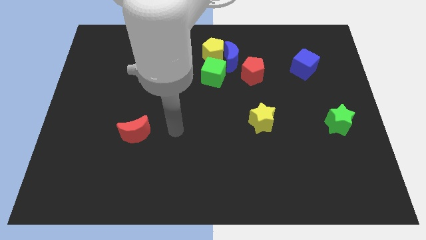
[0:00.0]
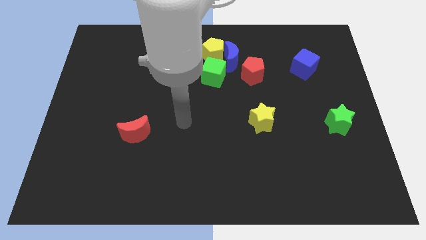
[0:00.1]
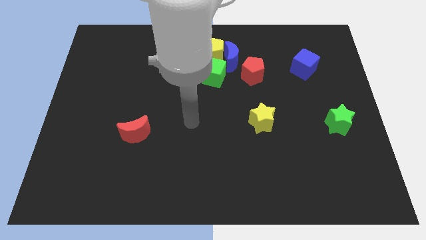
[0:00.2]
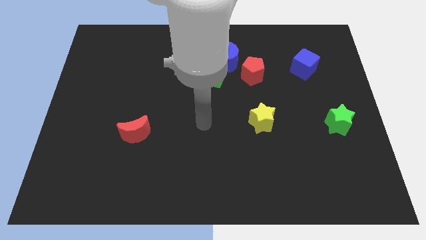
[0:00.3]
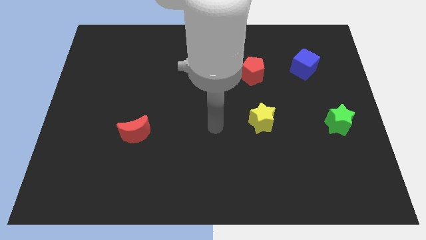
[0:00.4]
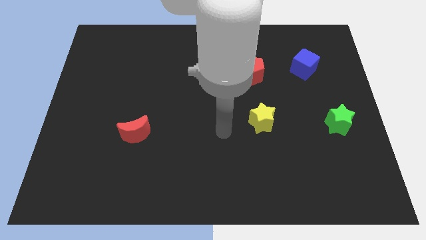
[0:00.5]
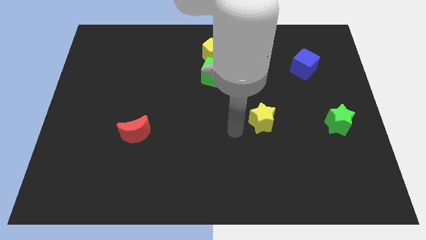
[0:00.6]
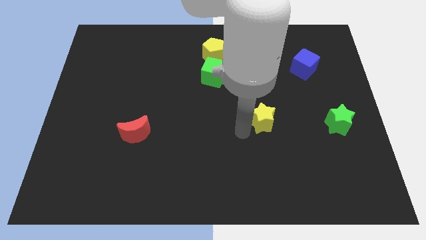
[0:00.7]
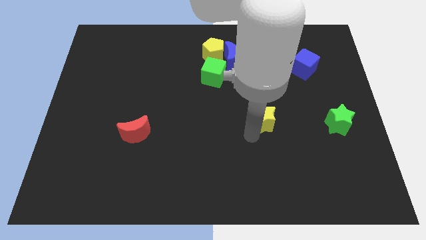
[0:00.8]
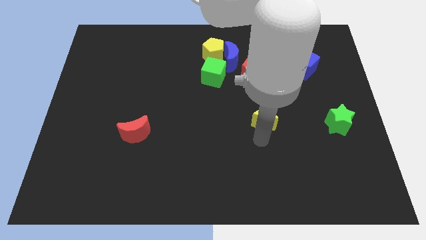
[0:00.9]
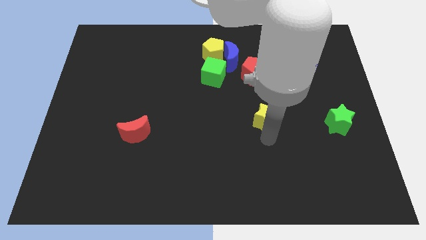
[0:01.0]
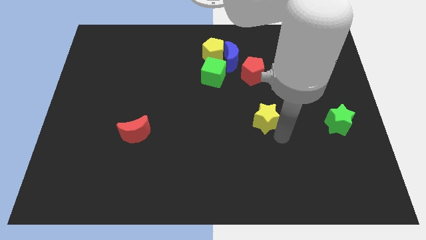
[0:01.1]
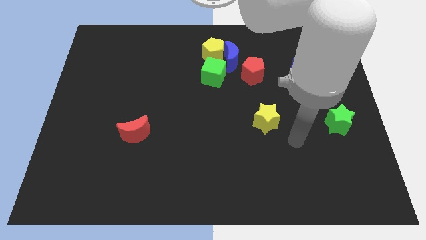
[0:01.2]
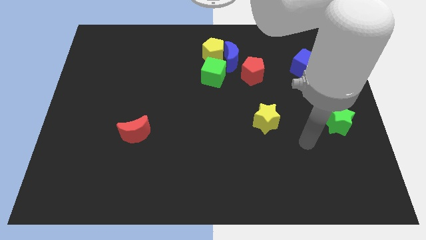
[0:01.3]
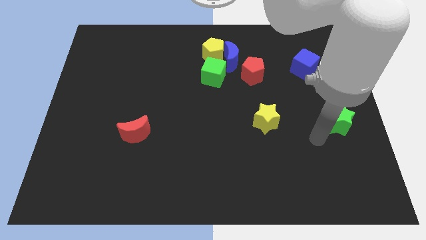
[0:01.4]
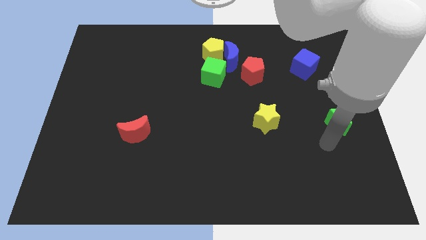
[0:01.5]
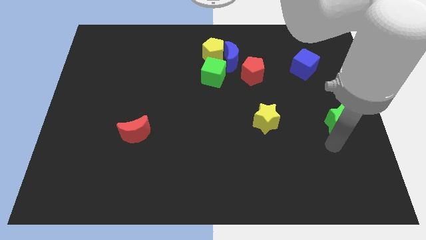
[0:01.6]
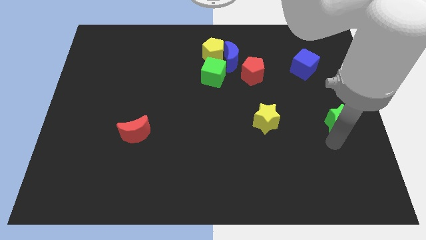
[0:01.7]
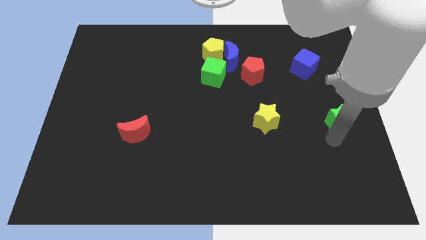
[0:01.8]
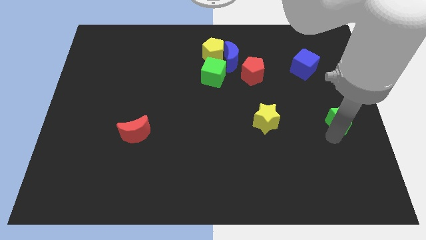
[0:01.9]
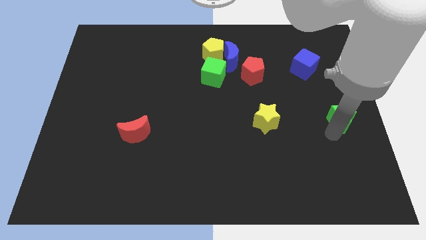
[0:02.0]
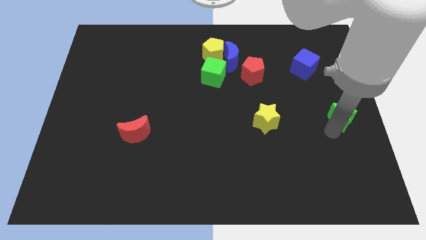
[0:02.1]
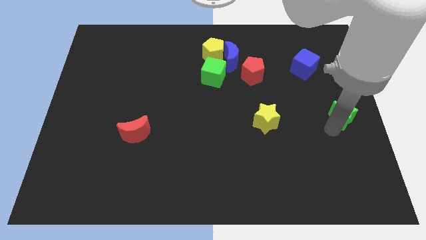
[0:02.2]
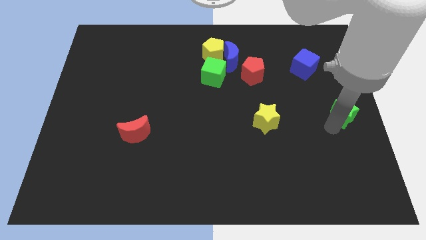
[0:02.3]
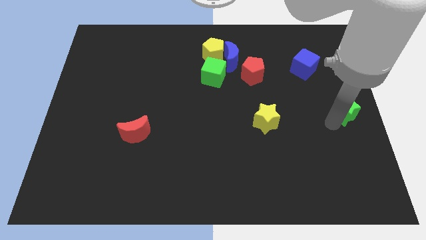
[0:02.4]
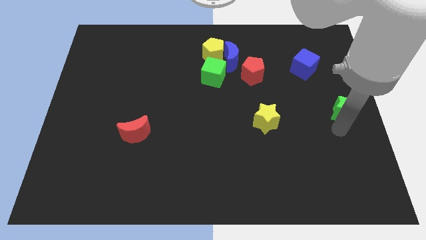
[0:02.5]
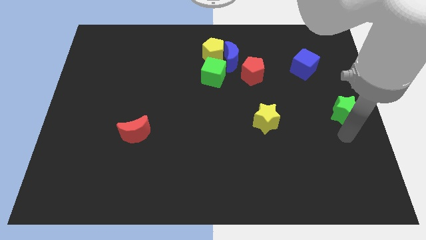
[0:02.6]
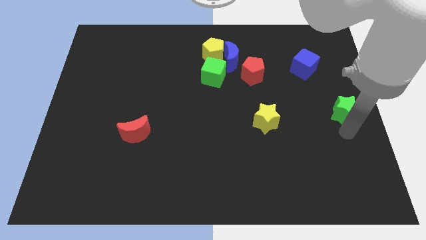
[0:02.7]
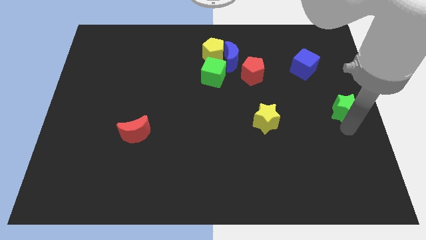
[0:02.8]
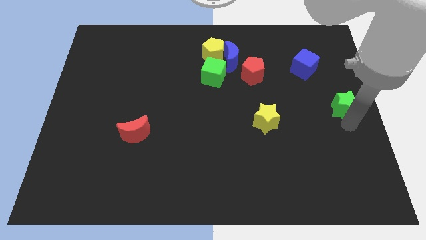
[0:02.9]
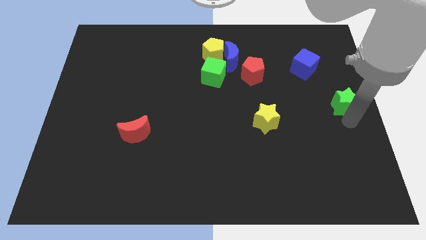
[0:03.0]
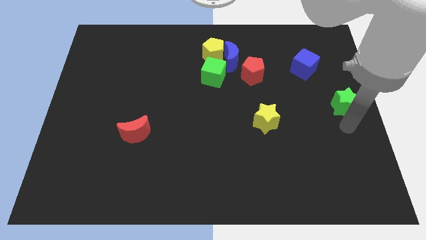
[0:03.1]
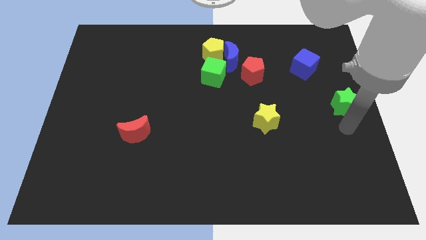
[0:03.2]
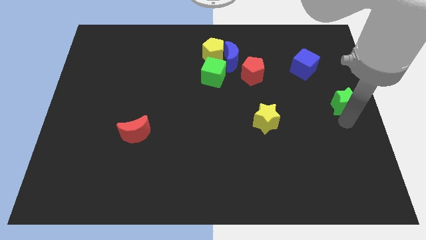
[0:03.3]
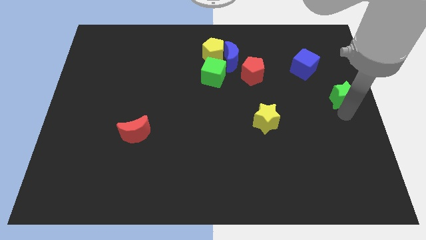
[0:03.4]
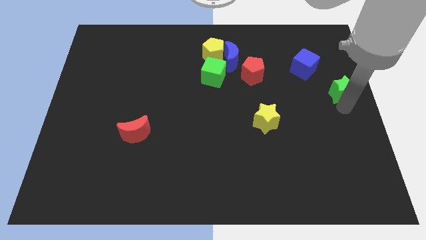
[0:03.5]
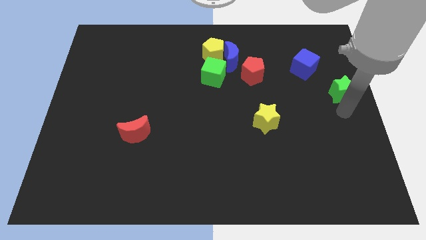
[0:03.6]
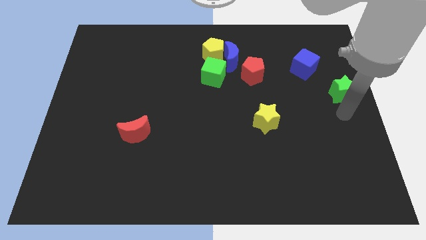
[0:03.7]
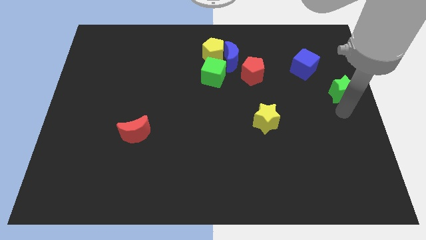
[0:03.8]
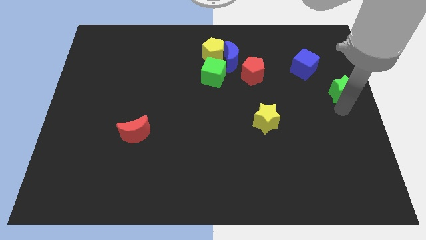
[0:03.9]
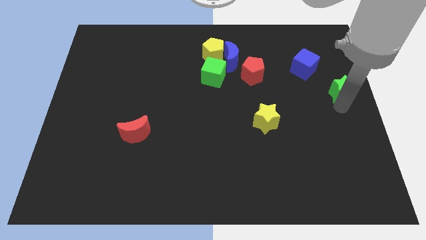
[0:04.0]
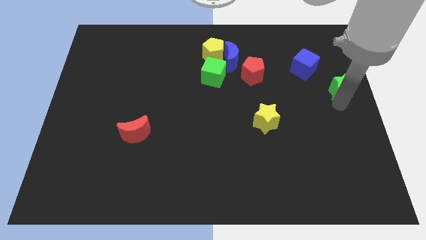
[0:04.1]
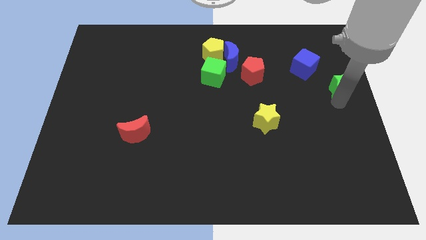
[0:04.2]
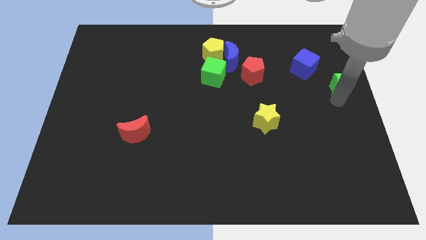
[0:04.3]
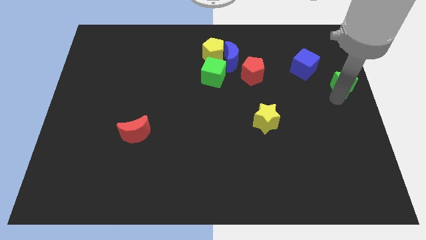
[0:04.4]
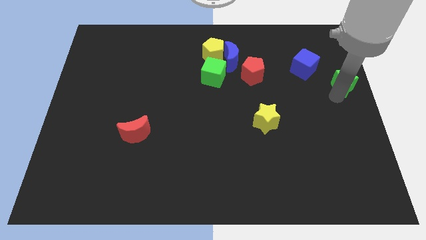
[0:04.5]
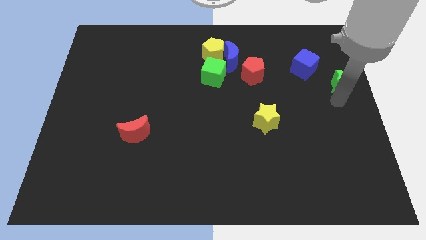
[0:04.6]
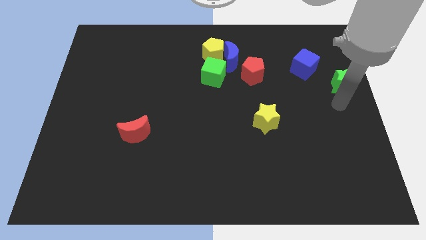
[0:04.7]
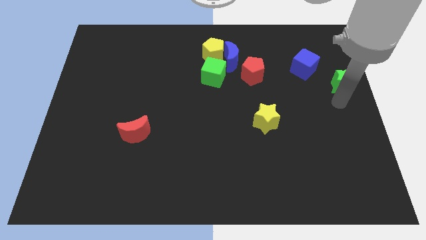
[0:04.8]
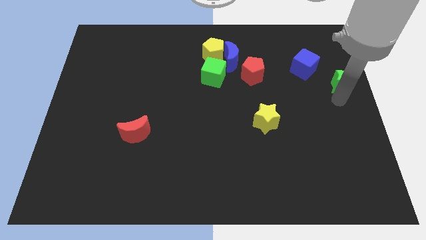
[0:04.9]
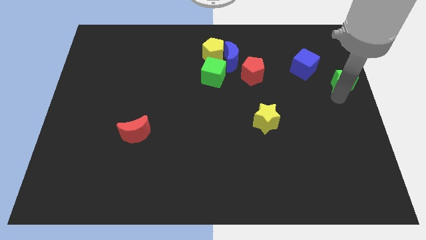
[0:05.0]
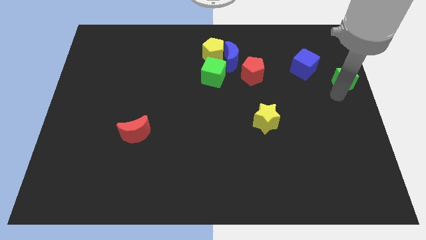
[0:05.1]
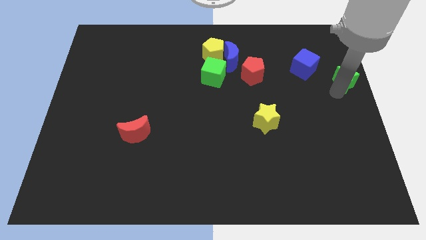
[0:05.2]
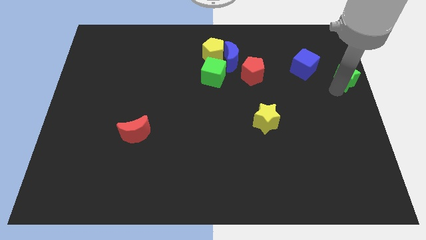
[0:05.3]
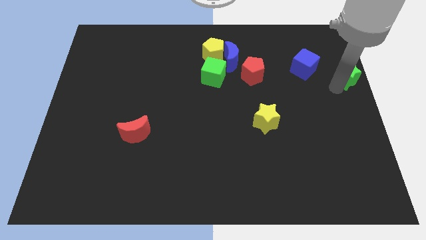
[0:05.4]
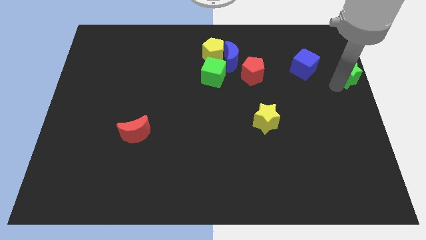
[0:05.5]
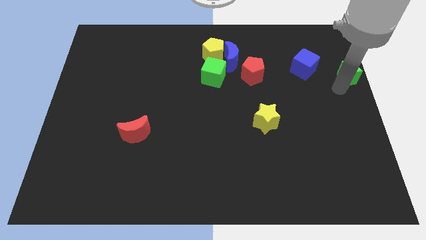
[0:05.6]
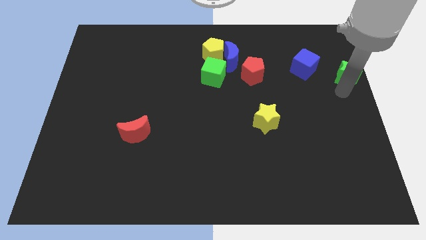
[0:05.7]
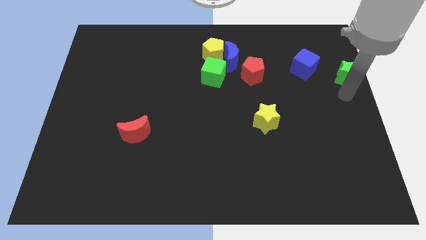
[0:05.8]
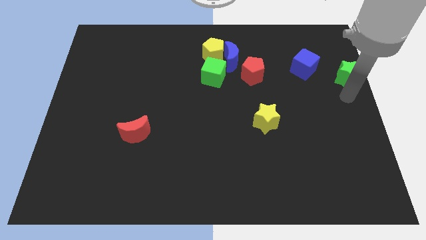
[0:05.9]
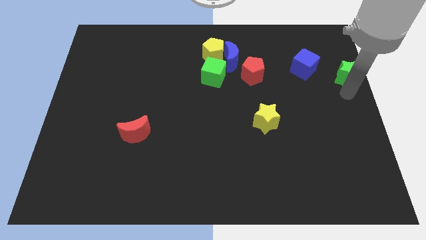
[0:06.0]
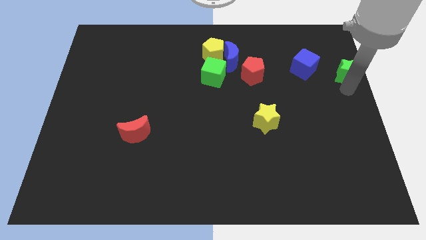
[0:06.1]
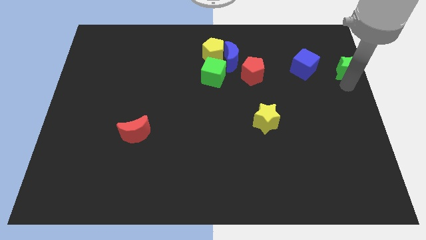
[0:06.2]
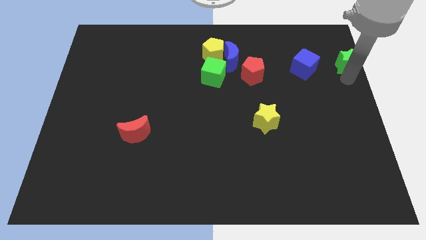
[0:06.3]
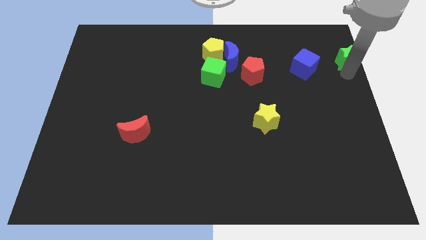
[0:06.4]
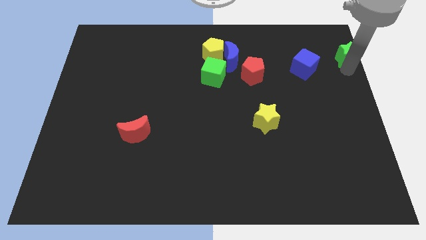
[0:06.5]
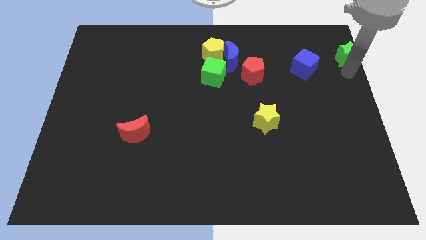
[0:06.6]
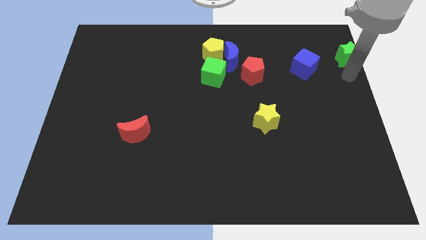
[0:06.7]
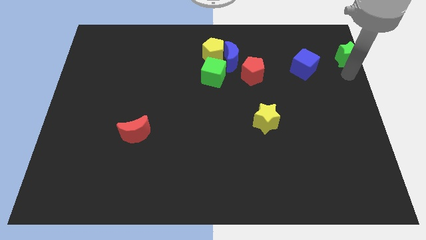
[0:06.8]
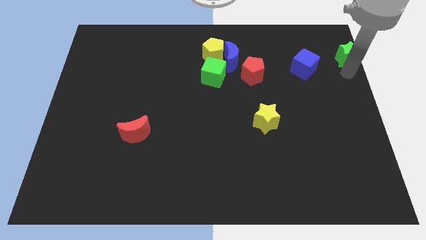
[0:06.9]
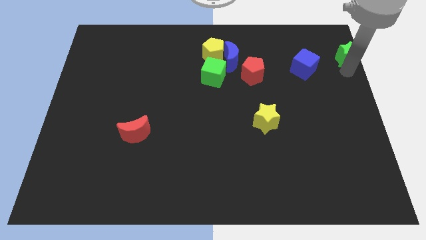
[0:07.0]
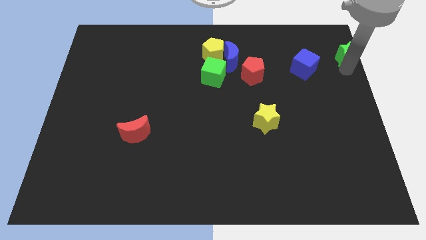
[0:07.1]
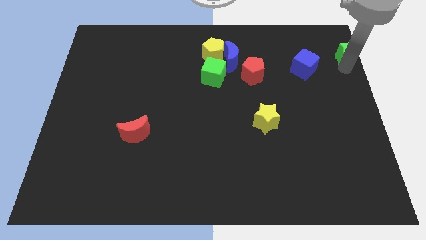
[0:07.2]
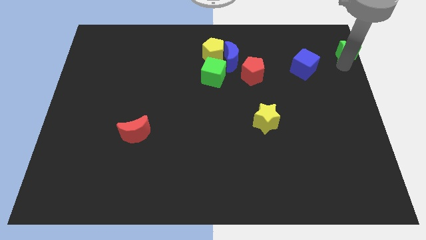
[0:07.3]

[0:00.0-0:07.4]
slide the green star to the top right
